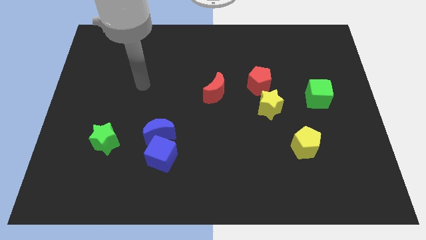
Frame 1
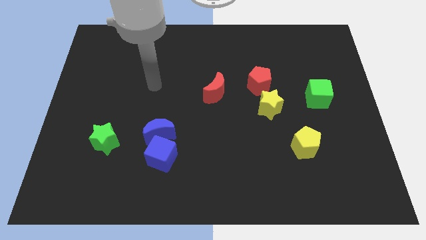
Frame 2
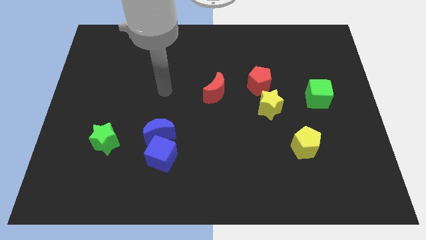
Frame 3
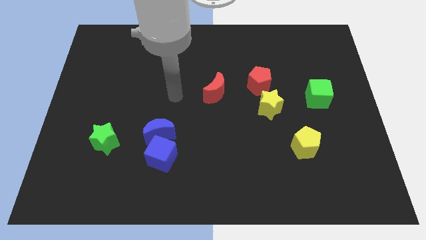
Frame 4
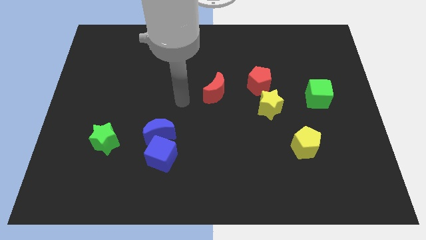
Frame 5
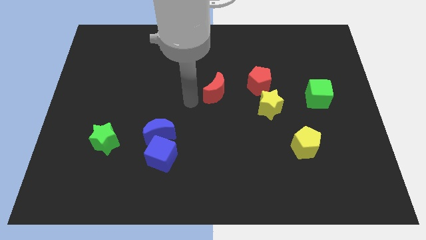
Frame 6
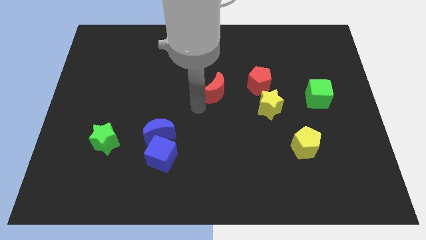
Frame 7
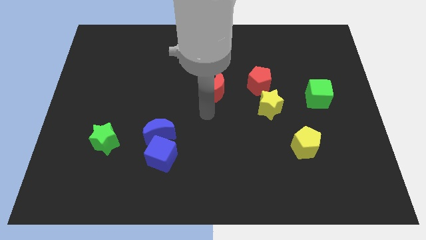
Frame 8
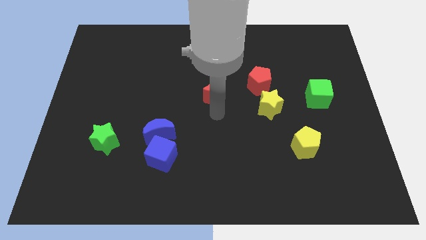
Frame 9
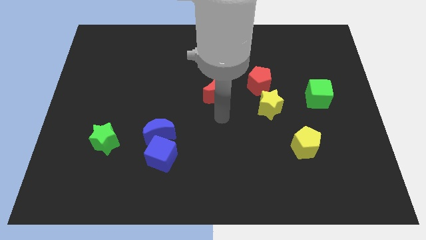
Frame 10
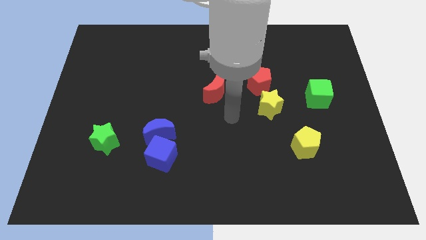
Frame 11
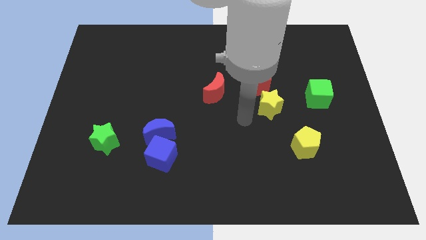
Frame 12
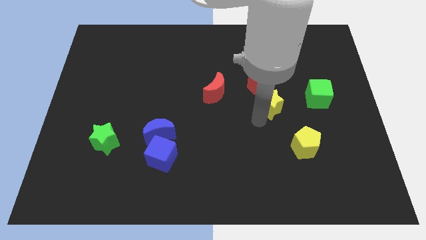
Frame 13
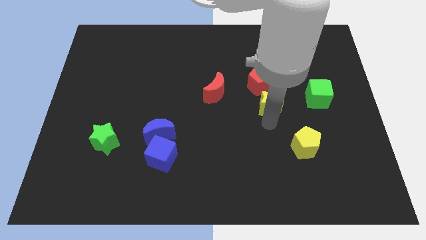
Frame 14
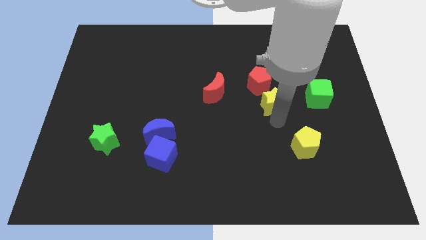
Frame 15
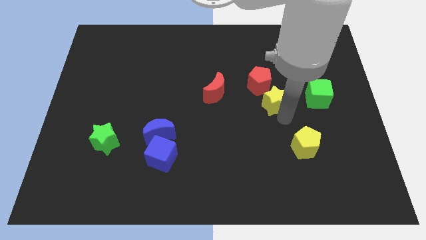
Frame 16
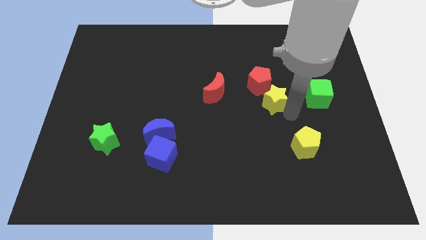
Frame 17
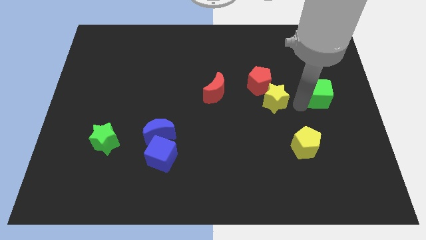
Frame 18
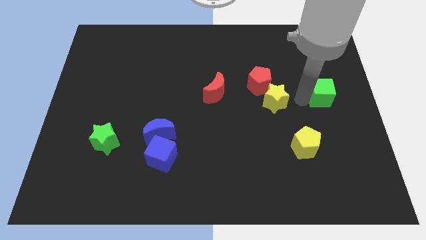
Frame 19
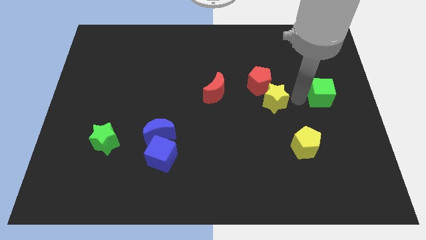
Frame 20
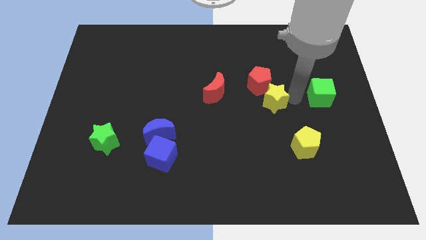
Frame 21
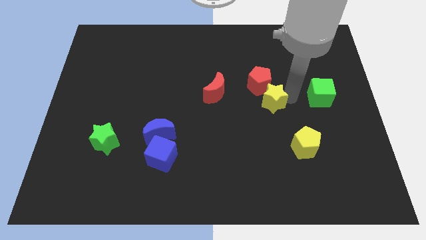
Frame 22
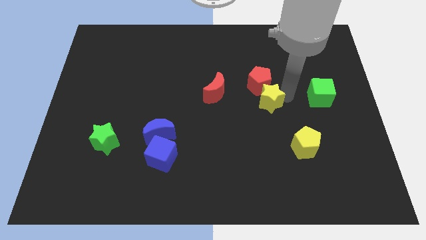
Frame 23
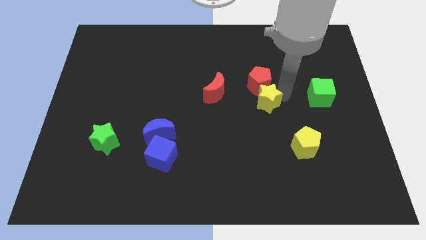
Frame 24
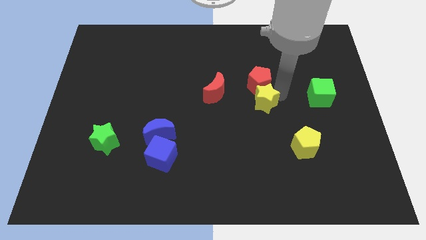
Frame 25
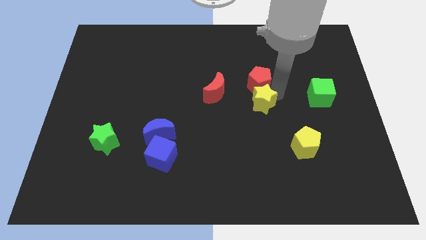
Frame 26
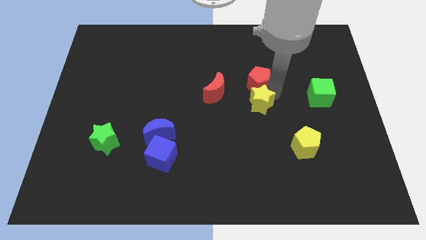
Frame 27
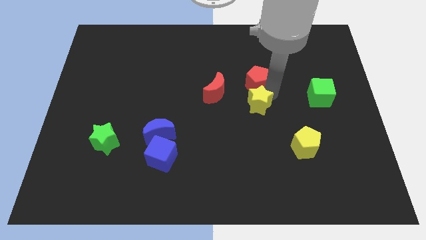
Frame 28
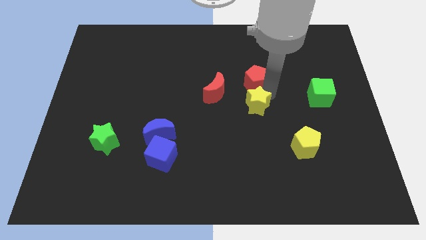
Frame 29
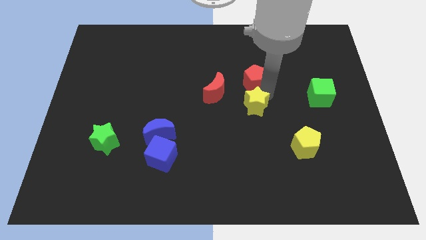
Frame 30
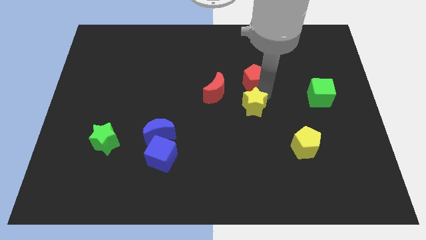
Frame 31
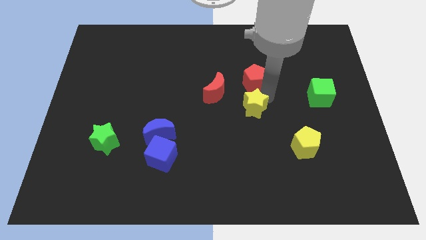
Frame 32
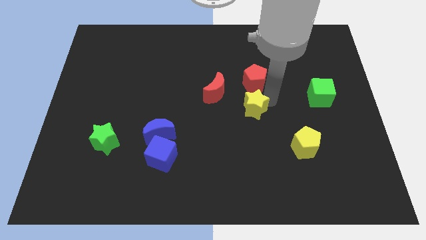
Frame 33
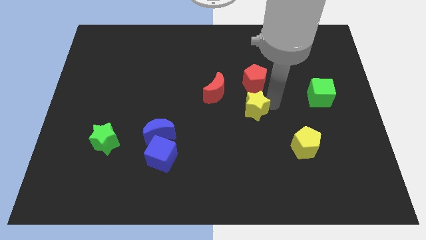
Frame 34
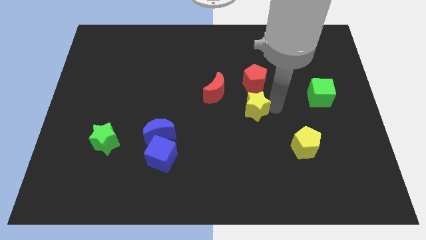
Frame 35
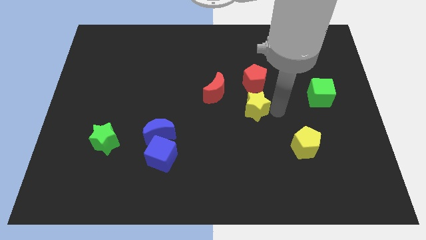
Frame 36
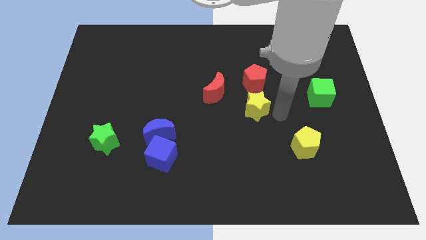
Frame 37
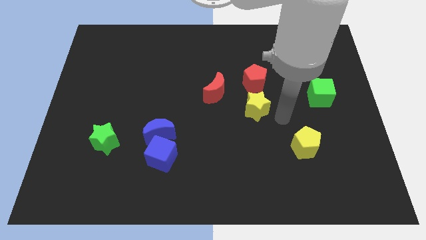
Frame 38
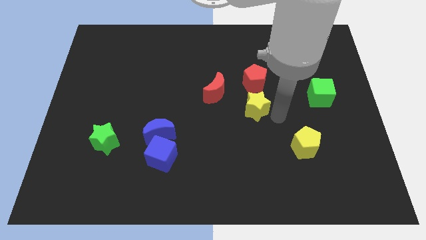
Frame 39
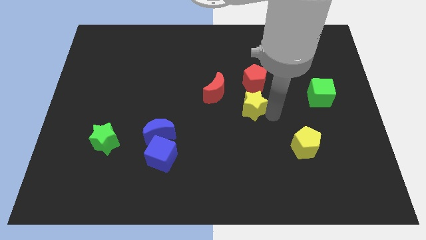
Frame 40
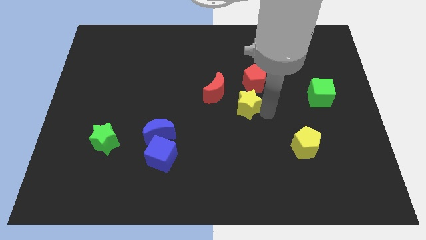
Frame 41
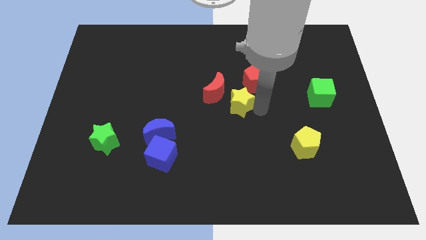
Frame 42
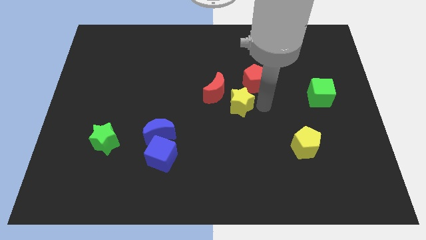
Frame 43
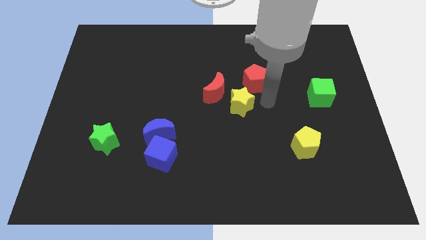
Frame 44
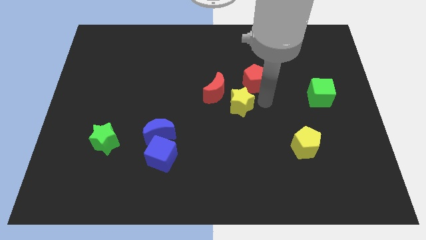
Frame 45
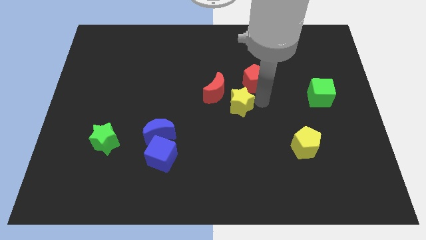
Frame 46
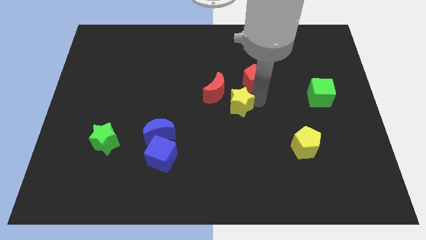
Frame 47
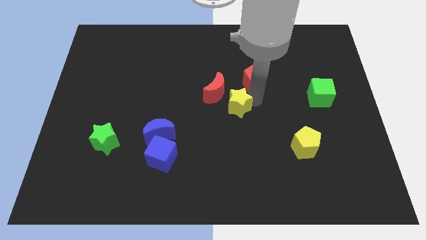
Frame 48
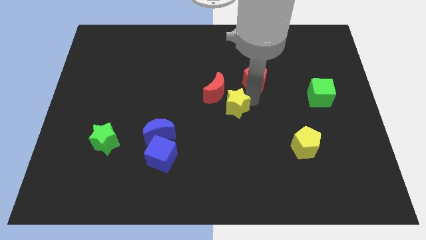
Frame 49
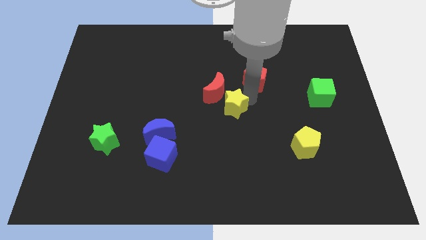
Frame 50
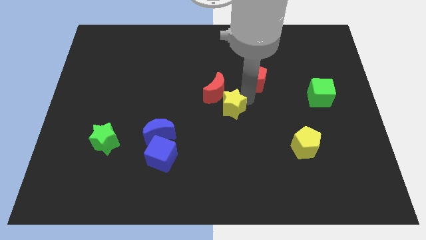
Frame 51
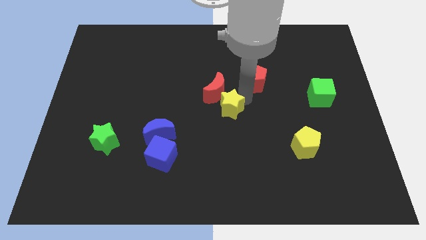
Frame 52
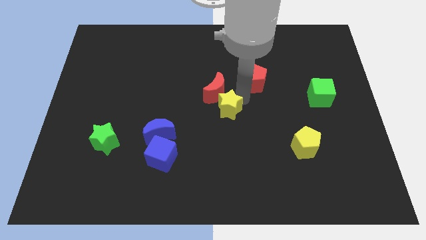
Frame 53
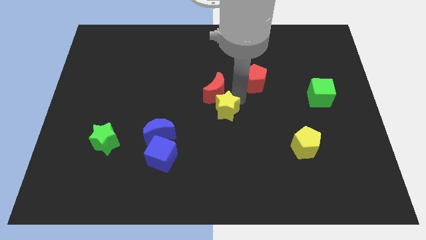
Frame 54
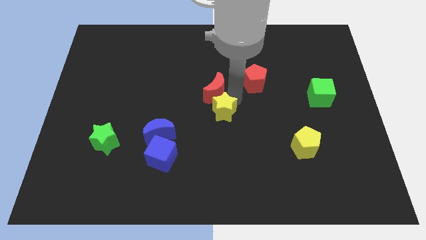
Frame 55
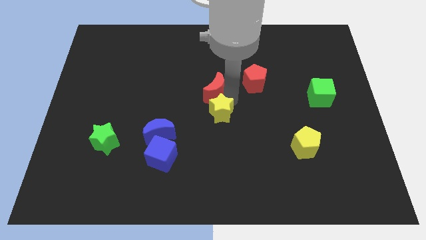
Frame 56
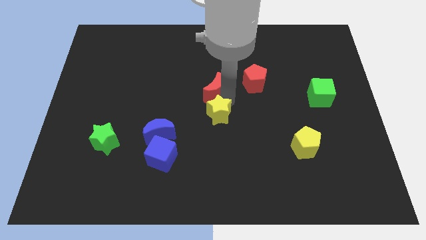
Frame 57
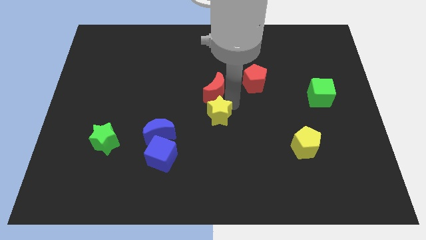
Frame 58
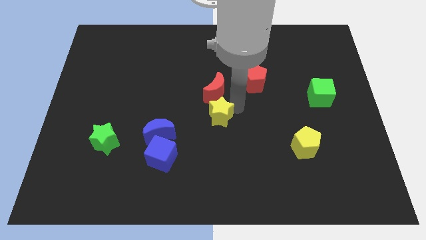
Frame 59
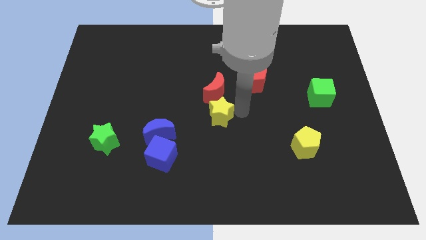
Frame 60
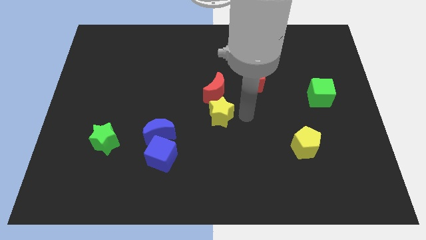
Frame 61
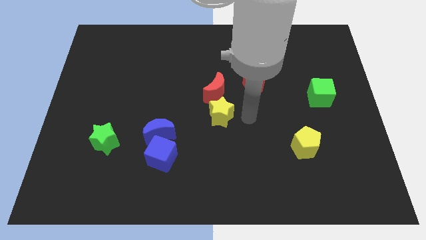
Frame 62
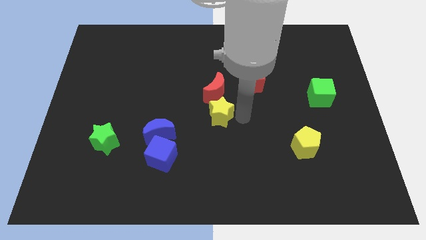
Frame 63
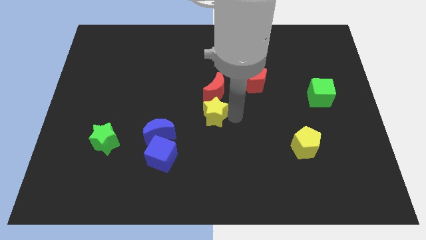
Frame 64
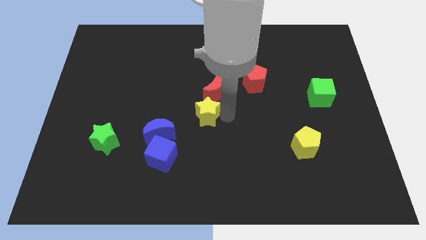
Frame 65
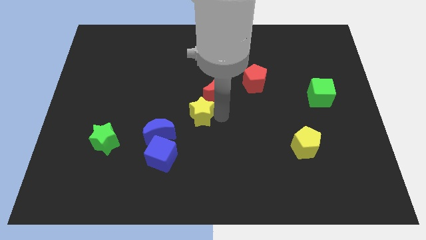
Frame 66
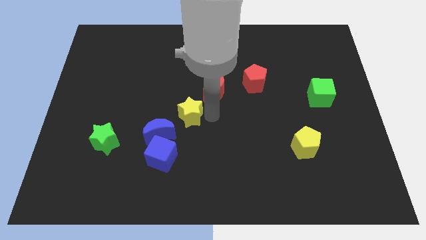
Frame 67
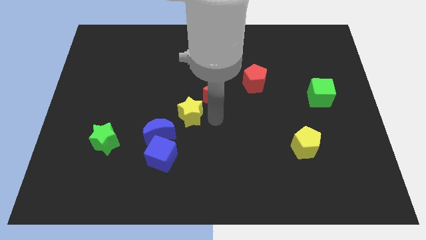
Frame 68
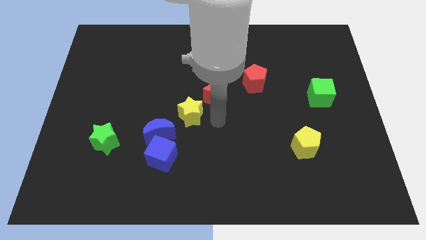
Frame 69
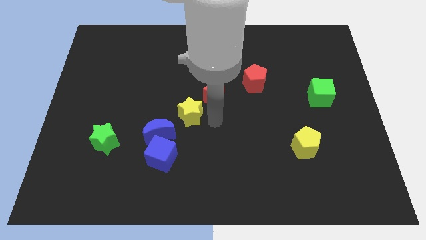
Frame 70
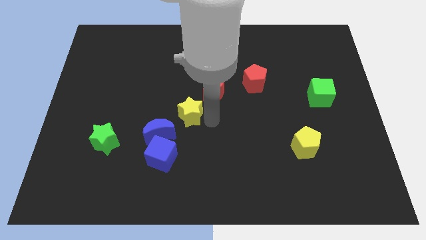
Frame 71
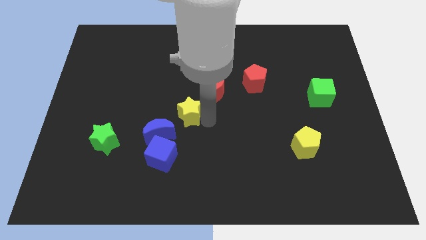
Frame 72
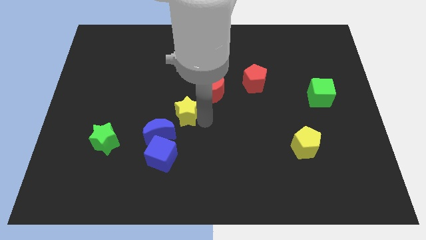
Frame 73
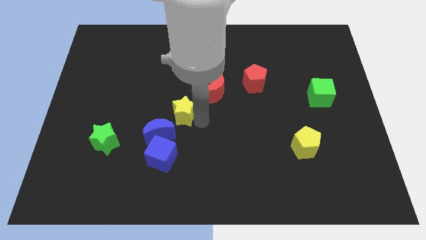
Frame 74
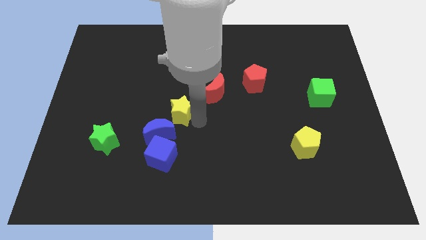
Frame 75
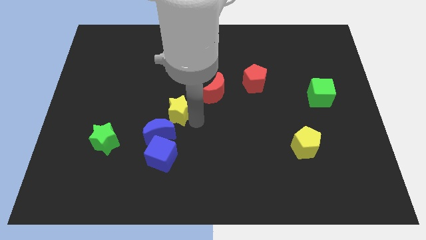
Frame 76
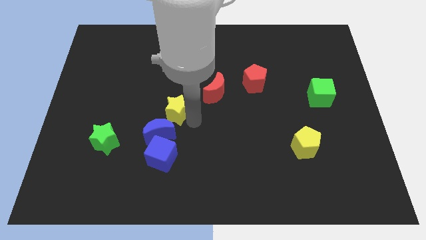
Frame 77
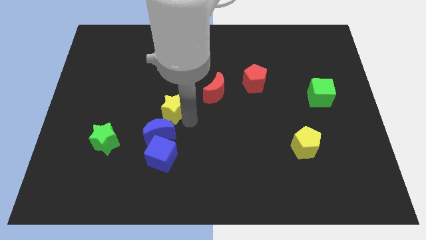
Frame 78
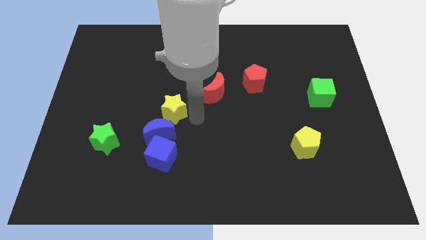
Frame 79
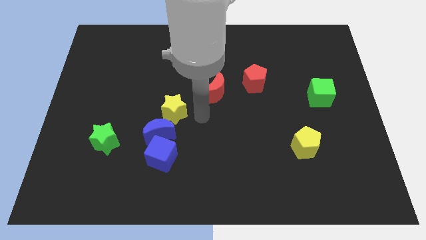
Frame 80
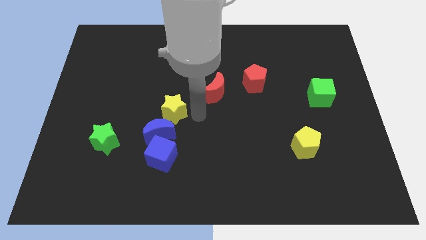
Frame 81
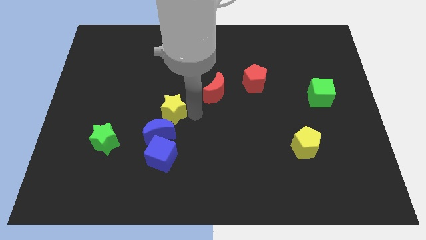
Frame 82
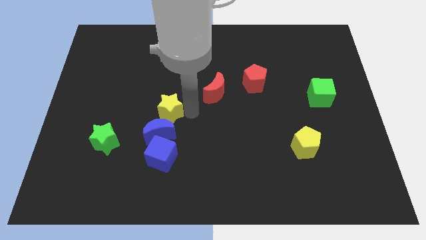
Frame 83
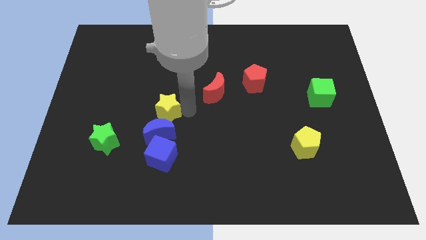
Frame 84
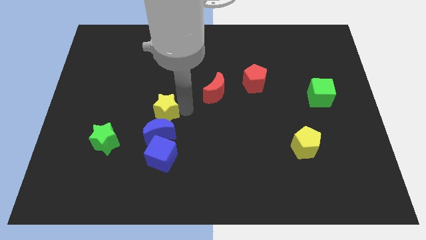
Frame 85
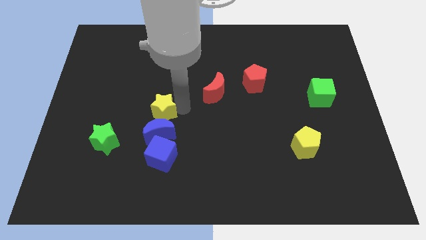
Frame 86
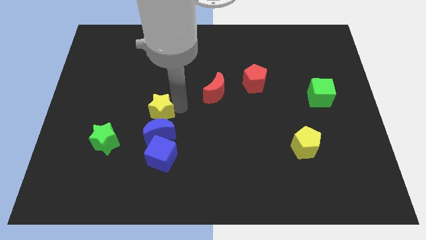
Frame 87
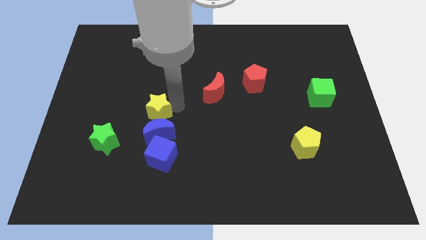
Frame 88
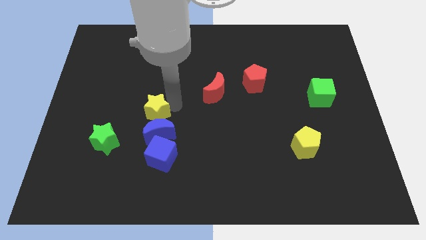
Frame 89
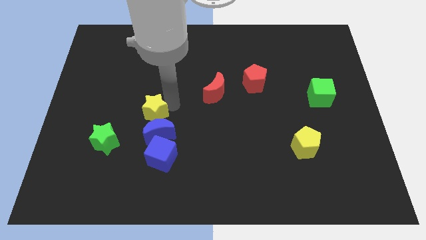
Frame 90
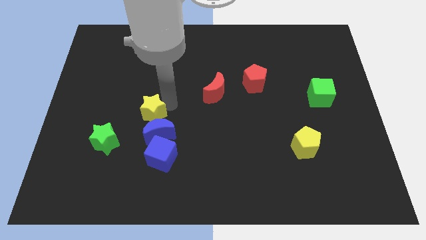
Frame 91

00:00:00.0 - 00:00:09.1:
push the yellow star to the top right side of the green star
